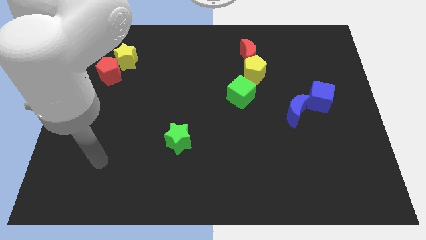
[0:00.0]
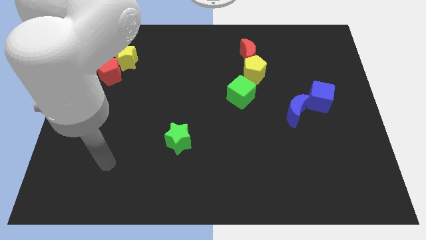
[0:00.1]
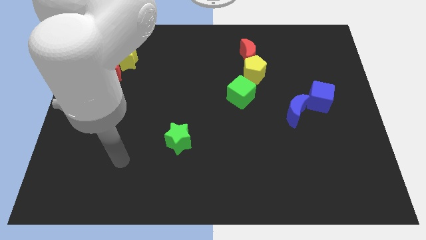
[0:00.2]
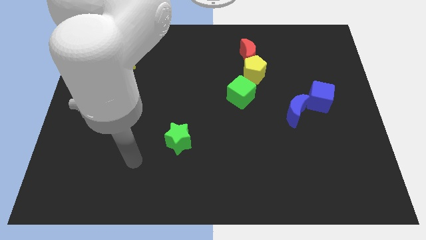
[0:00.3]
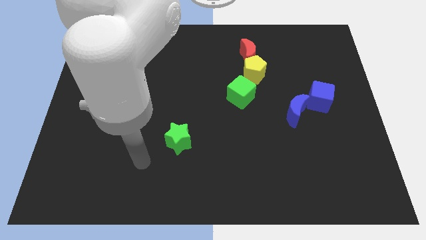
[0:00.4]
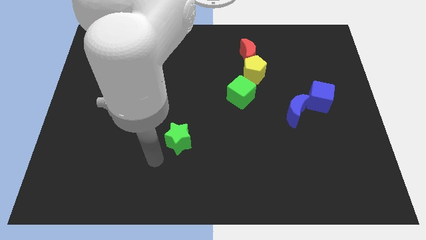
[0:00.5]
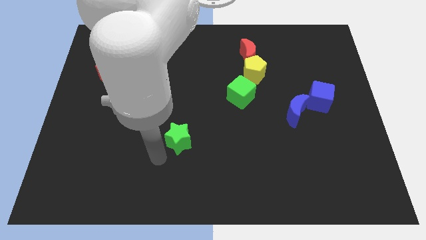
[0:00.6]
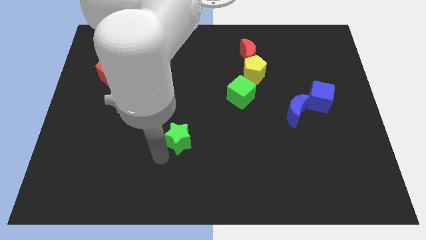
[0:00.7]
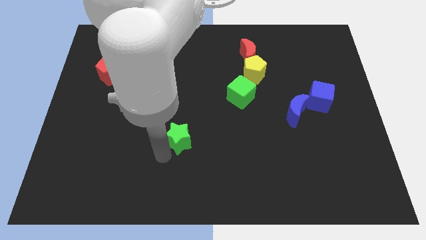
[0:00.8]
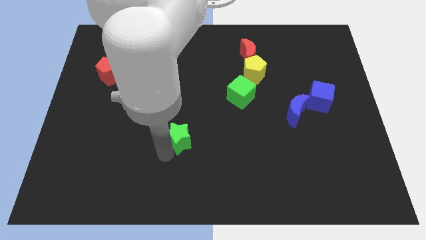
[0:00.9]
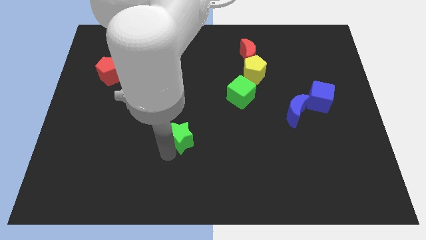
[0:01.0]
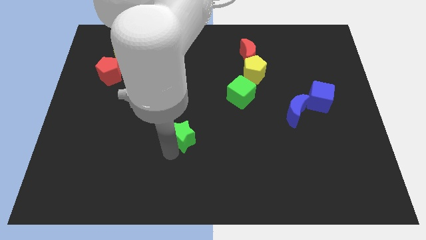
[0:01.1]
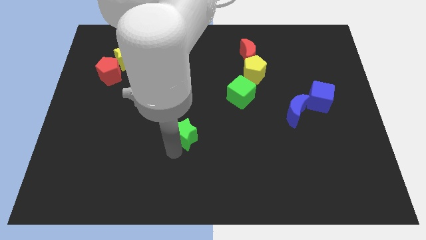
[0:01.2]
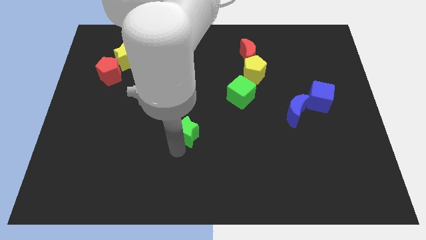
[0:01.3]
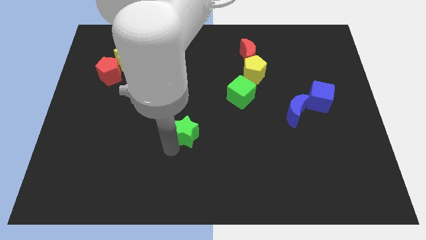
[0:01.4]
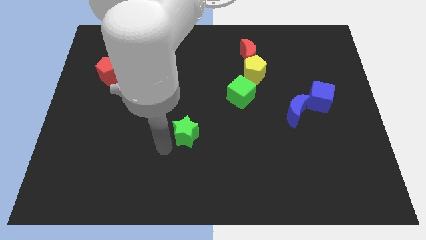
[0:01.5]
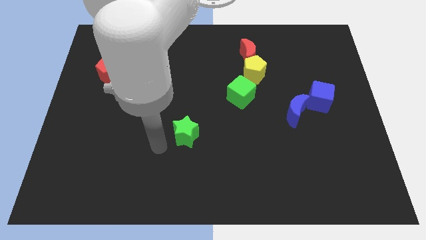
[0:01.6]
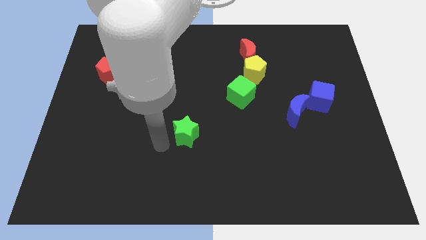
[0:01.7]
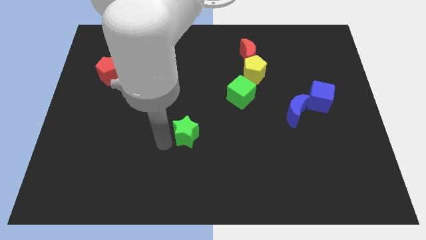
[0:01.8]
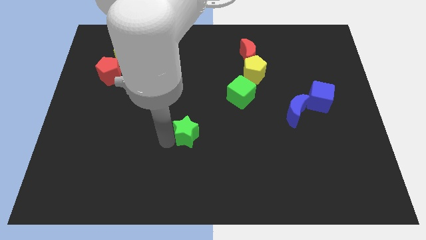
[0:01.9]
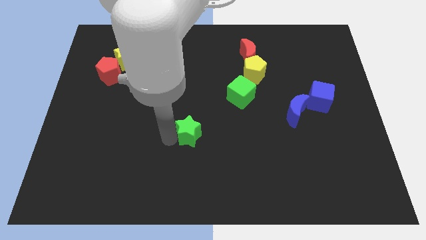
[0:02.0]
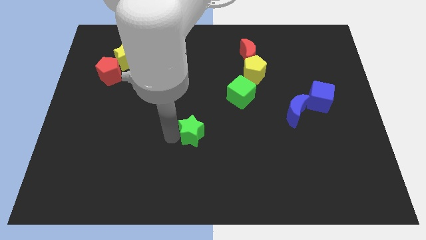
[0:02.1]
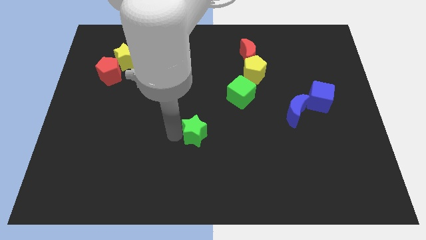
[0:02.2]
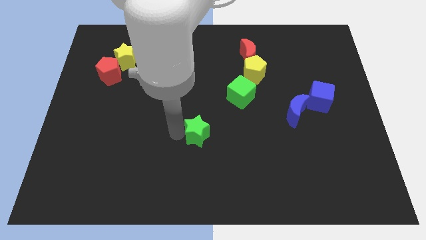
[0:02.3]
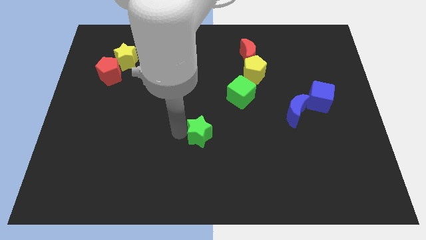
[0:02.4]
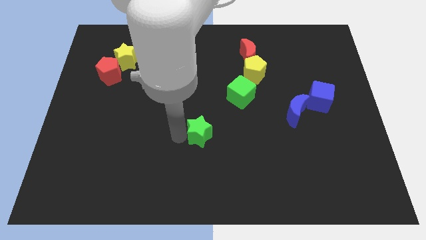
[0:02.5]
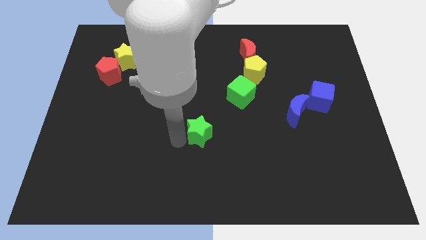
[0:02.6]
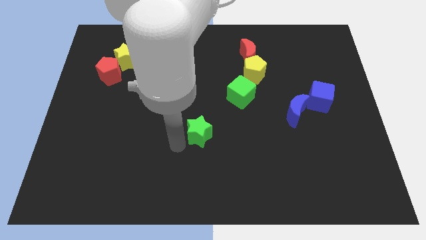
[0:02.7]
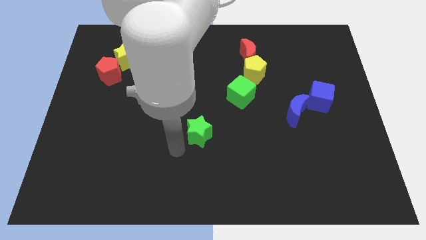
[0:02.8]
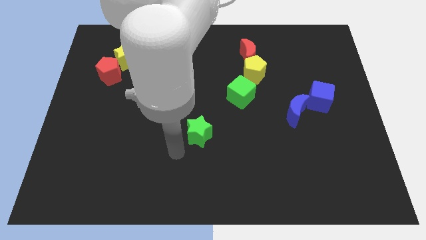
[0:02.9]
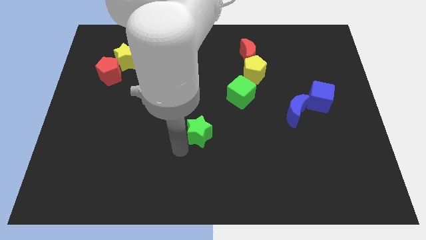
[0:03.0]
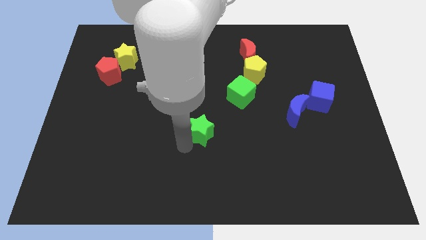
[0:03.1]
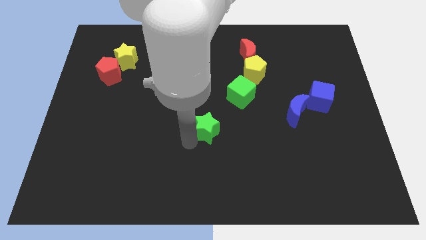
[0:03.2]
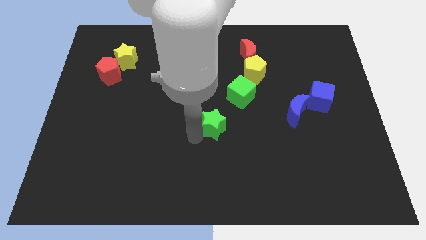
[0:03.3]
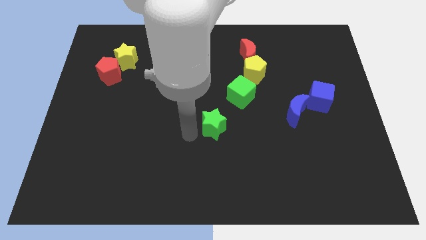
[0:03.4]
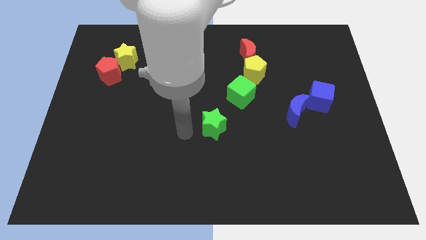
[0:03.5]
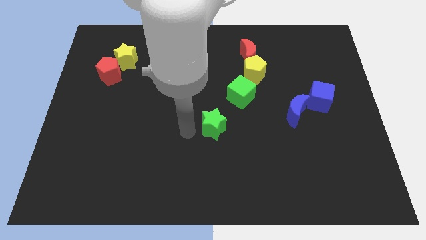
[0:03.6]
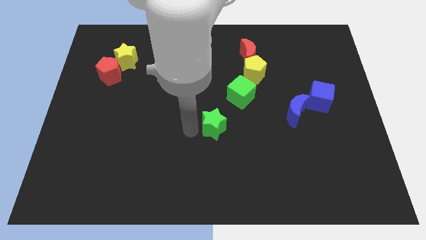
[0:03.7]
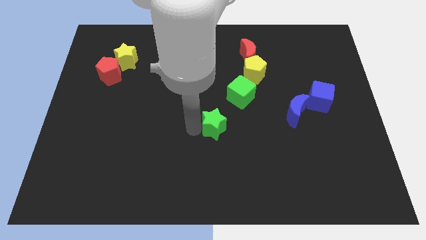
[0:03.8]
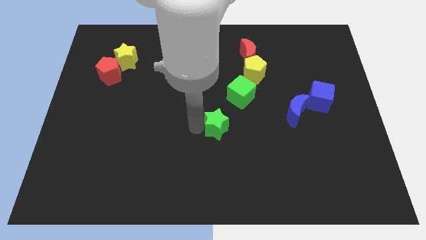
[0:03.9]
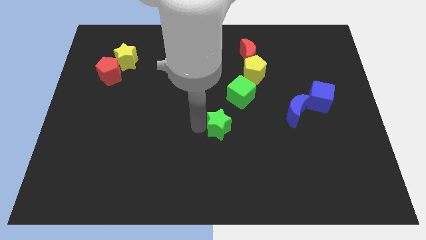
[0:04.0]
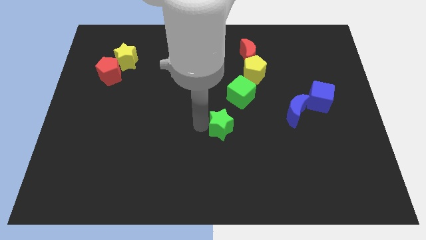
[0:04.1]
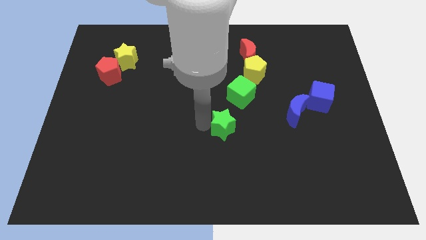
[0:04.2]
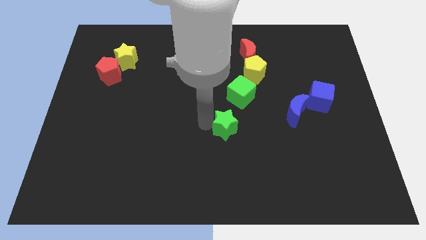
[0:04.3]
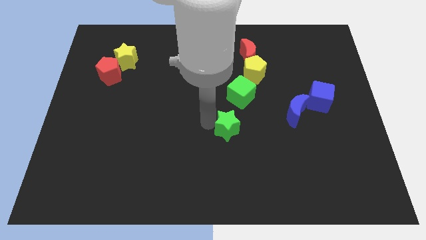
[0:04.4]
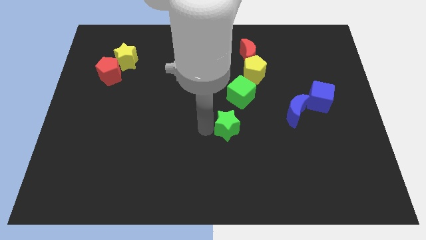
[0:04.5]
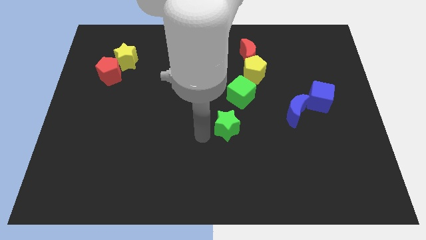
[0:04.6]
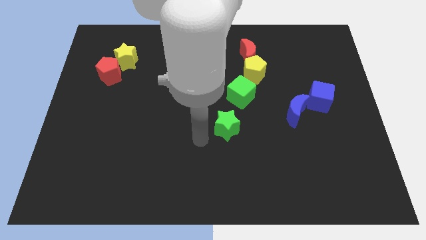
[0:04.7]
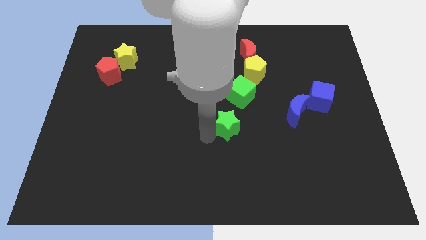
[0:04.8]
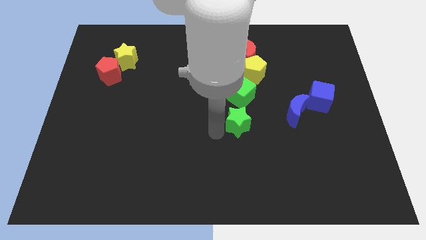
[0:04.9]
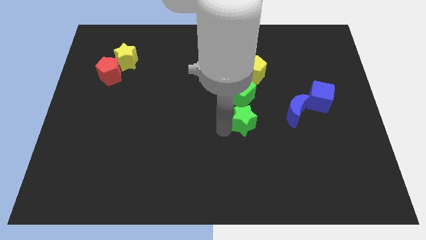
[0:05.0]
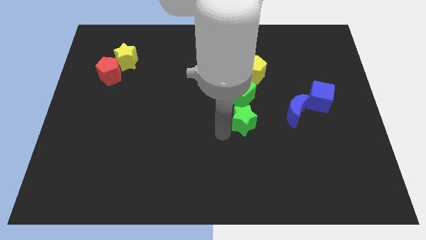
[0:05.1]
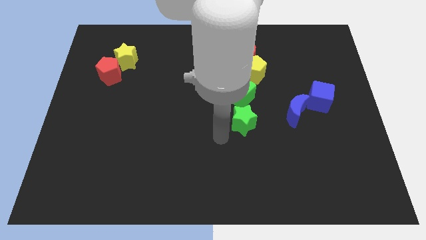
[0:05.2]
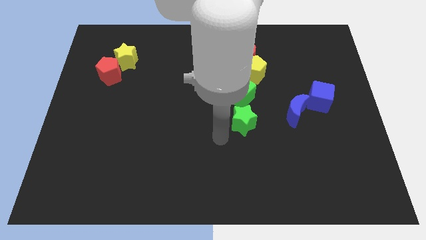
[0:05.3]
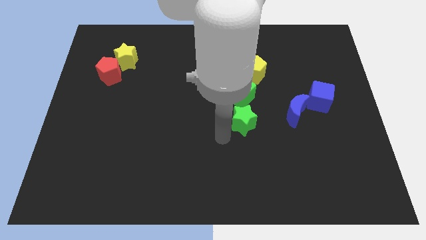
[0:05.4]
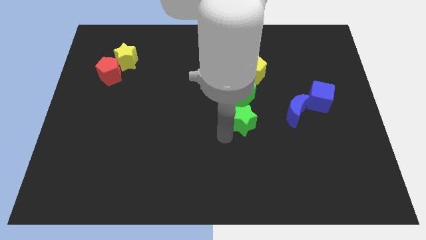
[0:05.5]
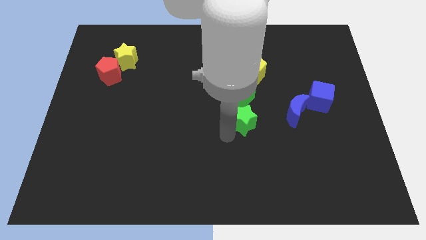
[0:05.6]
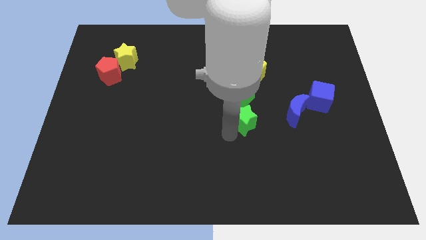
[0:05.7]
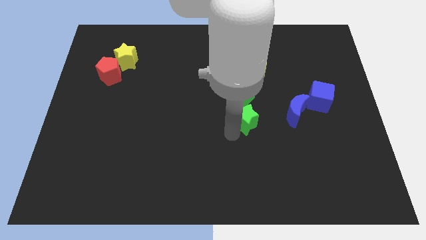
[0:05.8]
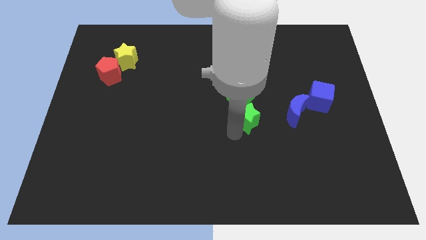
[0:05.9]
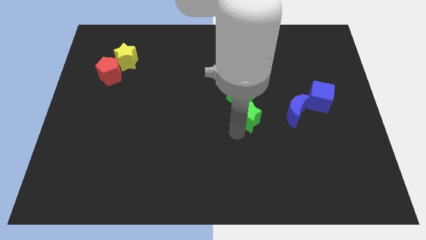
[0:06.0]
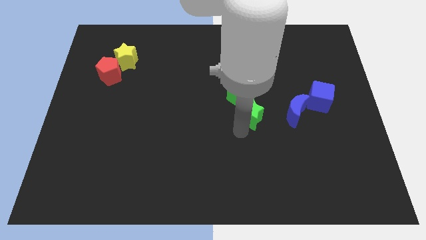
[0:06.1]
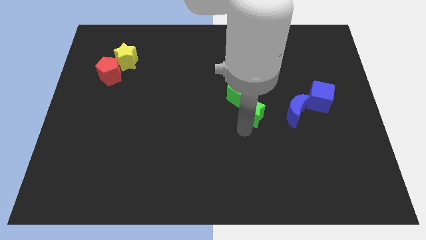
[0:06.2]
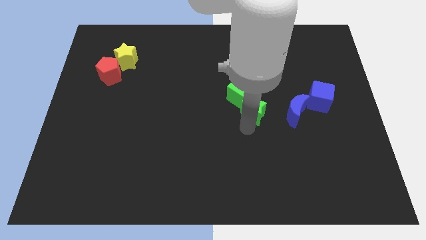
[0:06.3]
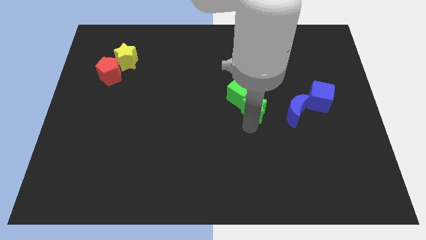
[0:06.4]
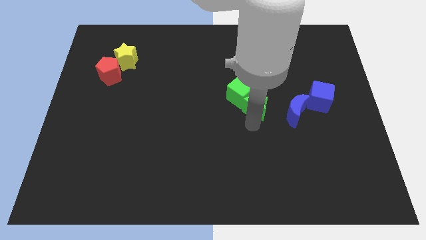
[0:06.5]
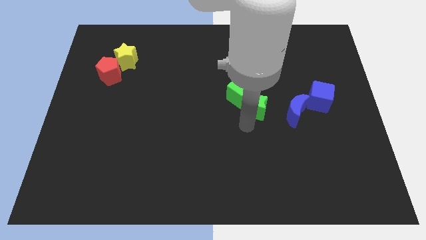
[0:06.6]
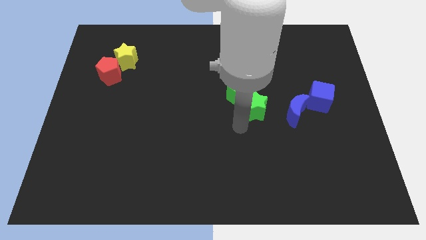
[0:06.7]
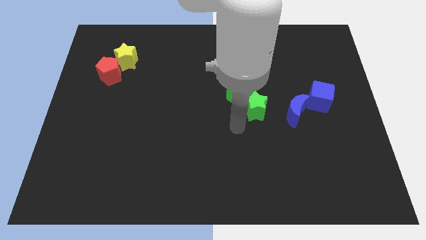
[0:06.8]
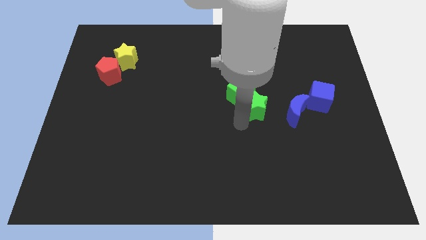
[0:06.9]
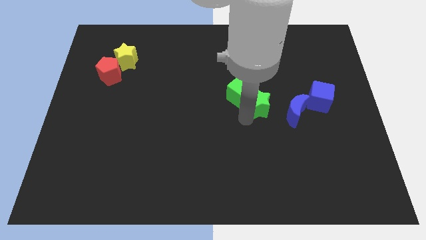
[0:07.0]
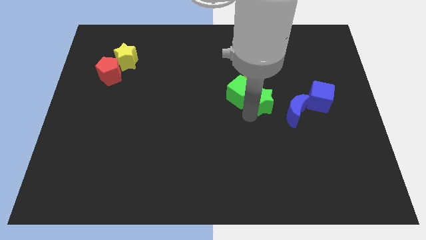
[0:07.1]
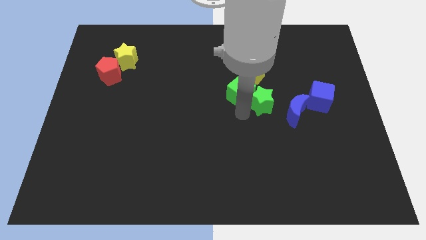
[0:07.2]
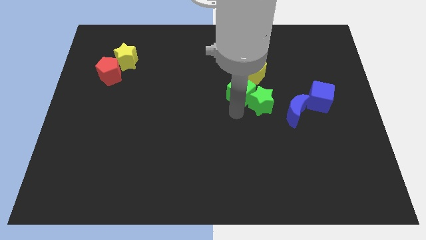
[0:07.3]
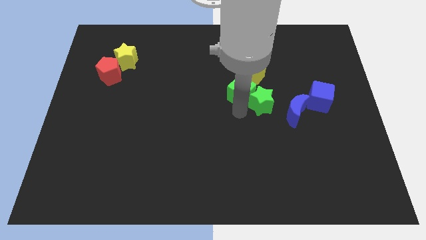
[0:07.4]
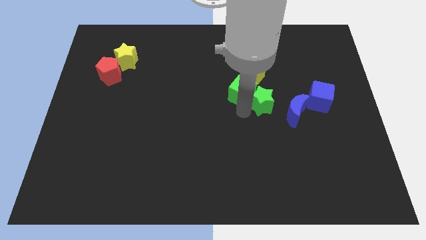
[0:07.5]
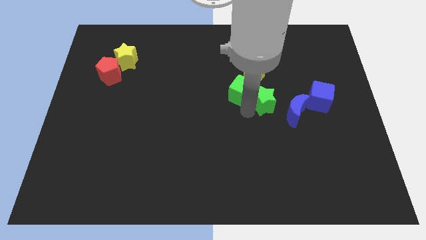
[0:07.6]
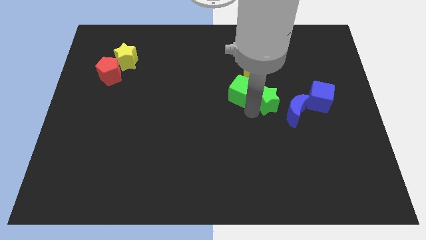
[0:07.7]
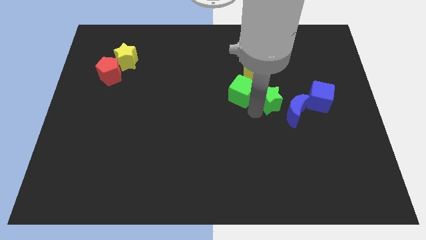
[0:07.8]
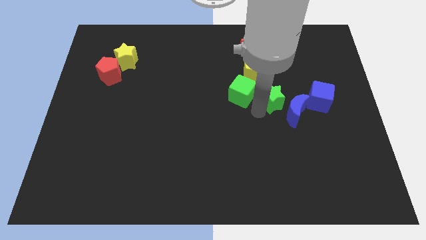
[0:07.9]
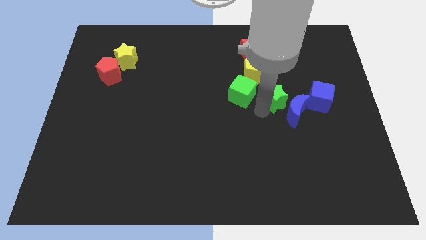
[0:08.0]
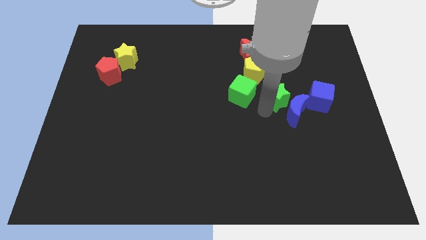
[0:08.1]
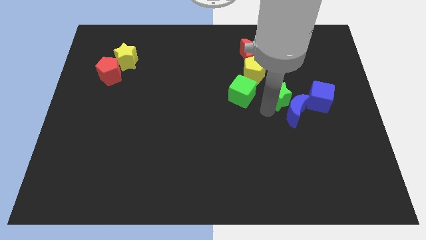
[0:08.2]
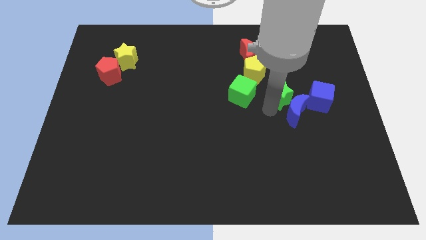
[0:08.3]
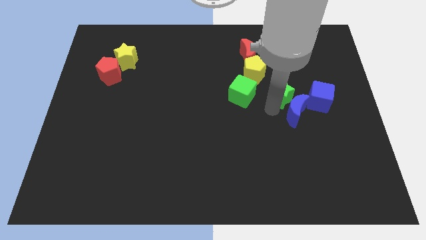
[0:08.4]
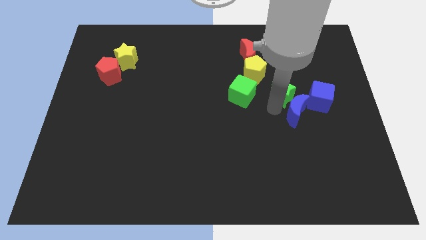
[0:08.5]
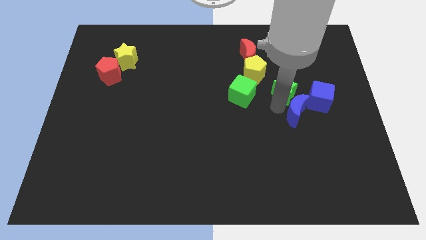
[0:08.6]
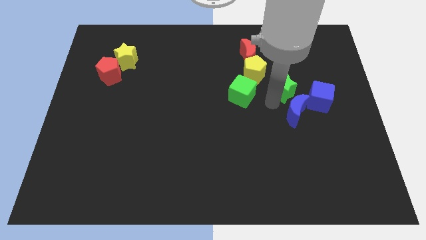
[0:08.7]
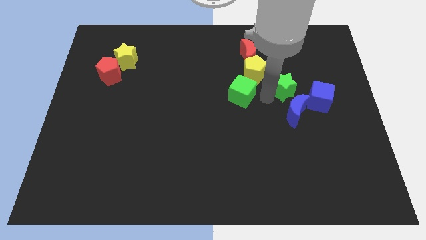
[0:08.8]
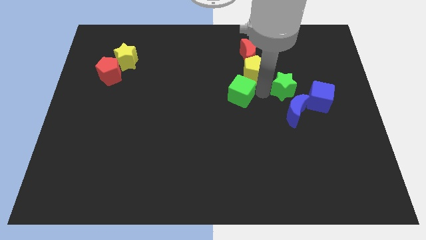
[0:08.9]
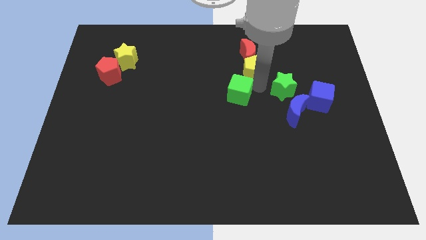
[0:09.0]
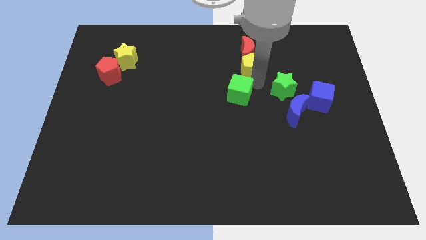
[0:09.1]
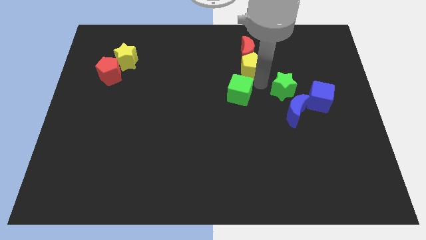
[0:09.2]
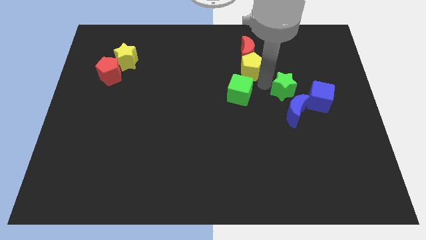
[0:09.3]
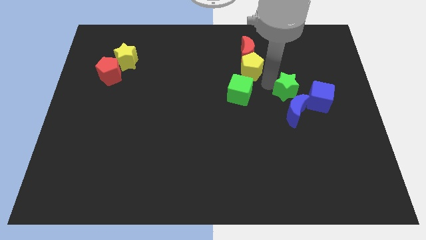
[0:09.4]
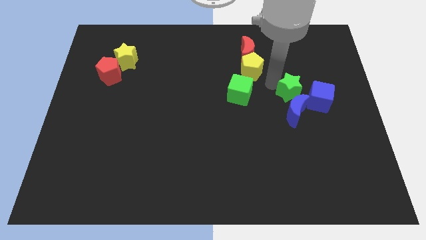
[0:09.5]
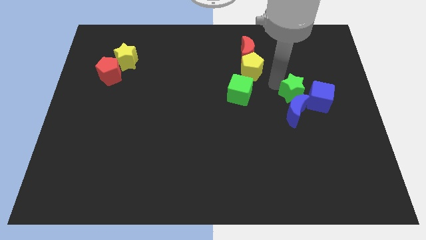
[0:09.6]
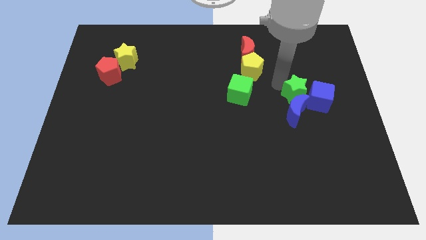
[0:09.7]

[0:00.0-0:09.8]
push the green star to the blue cube
